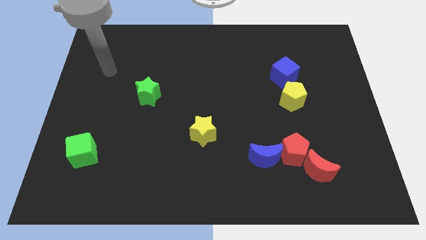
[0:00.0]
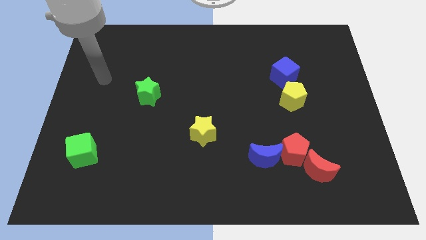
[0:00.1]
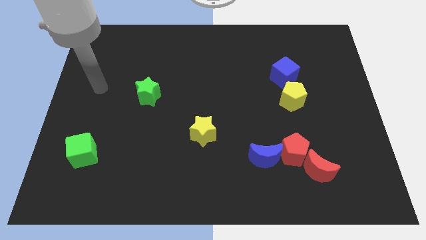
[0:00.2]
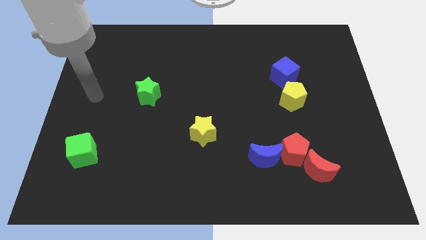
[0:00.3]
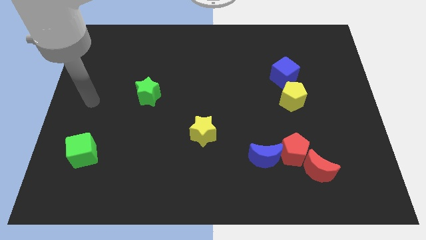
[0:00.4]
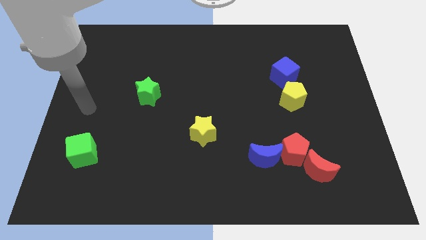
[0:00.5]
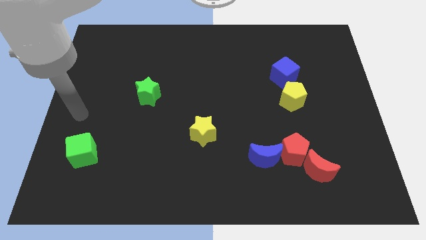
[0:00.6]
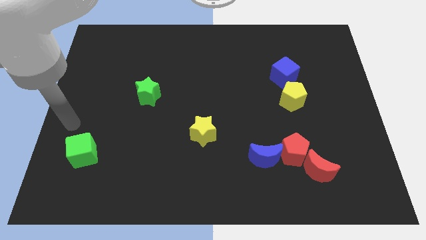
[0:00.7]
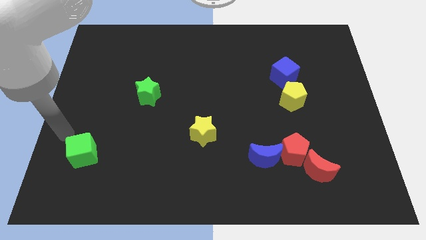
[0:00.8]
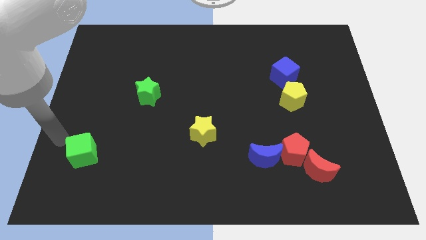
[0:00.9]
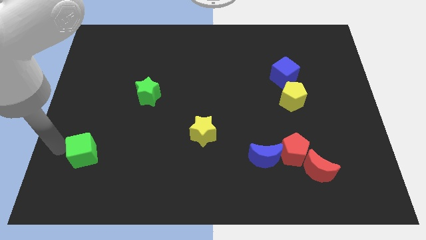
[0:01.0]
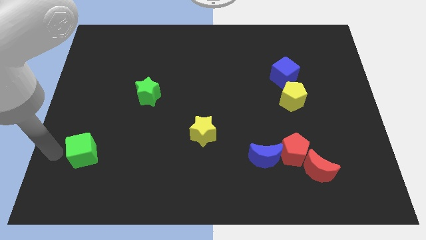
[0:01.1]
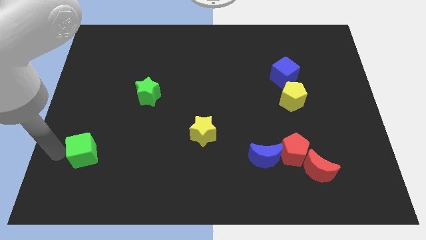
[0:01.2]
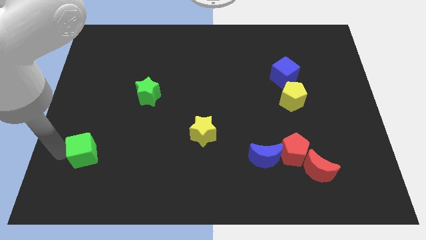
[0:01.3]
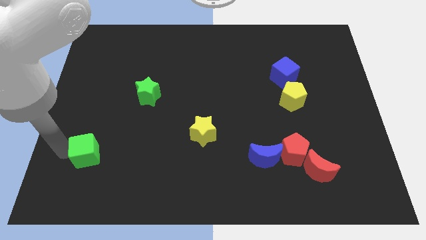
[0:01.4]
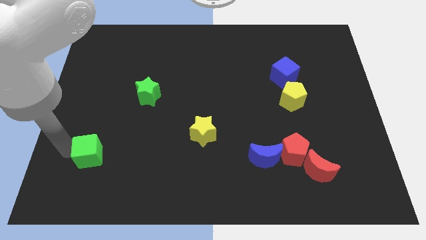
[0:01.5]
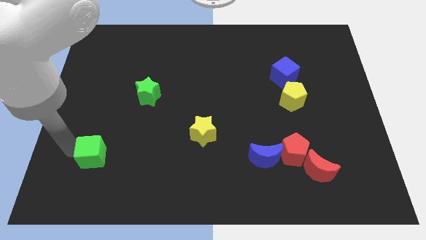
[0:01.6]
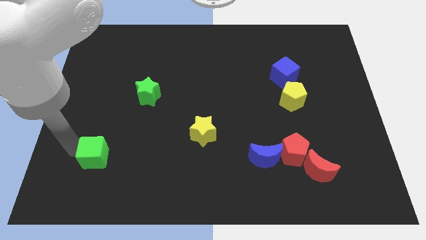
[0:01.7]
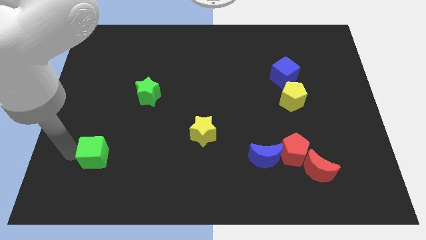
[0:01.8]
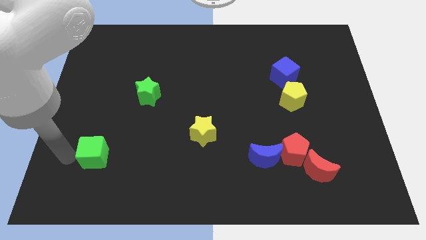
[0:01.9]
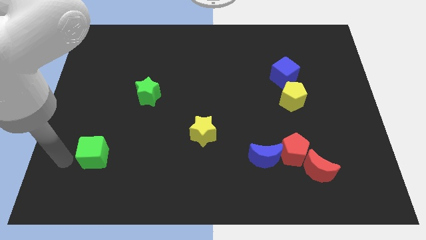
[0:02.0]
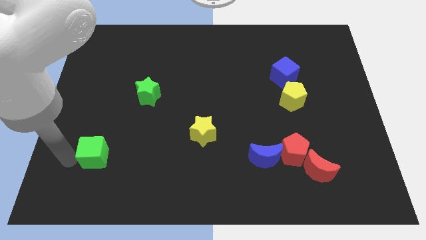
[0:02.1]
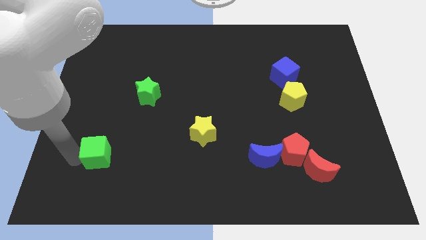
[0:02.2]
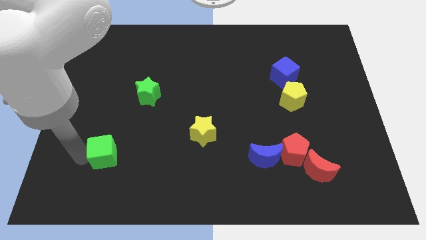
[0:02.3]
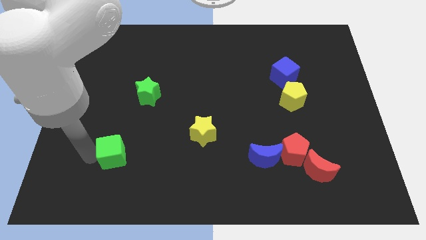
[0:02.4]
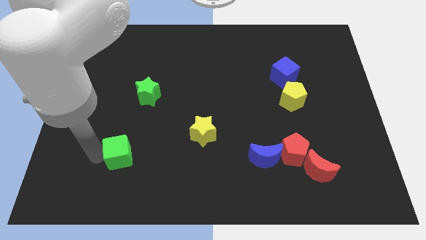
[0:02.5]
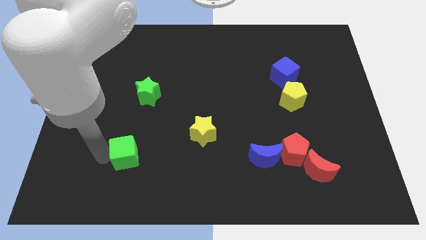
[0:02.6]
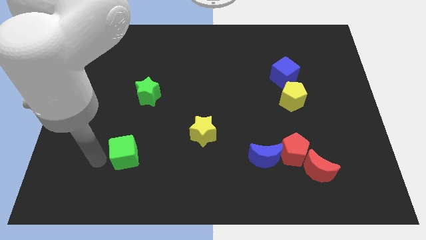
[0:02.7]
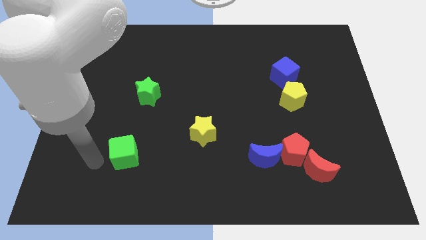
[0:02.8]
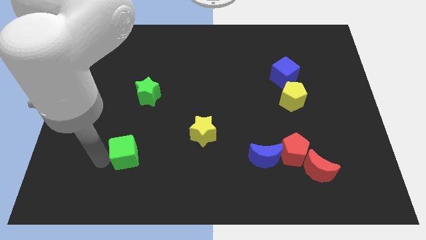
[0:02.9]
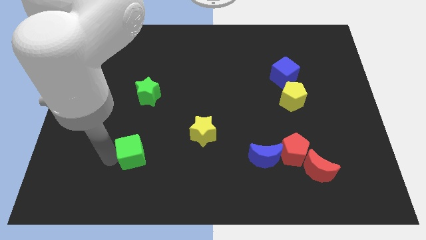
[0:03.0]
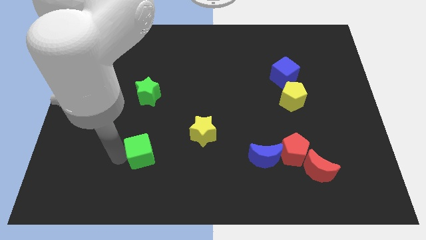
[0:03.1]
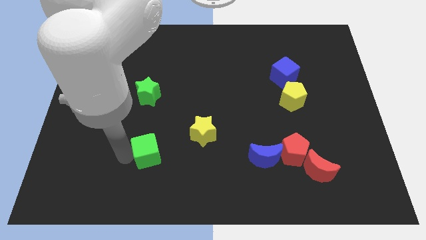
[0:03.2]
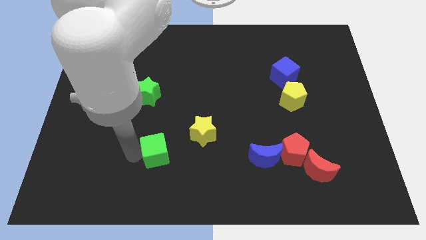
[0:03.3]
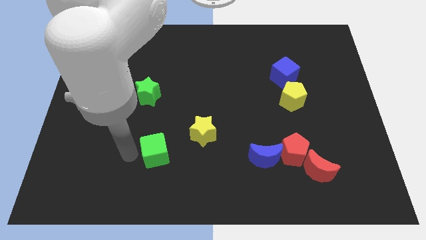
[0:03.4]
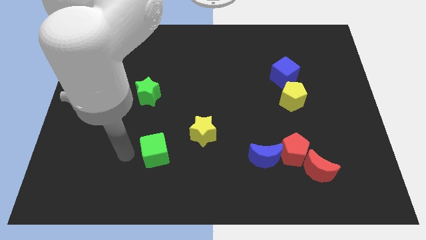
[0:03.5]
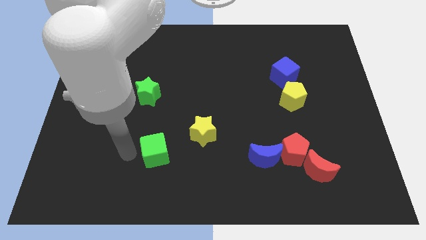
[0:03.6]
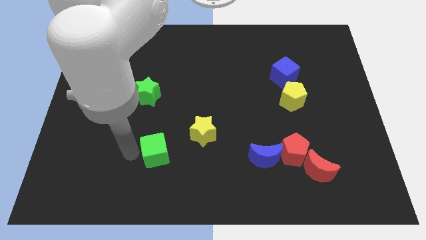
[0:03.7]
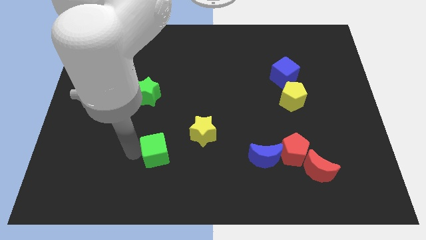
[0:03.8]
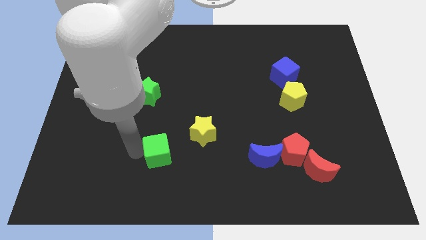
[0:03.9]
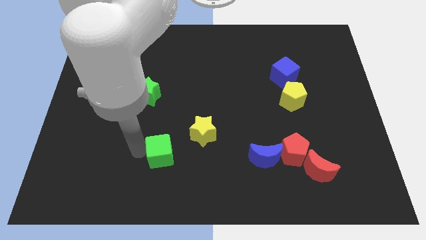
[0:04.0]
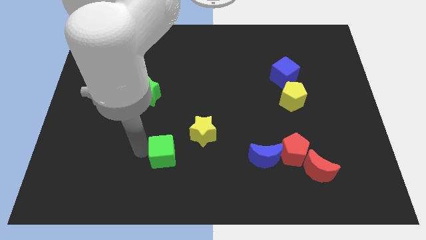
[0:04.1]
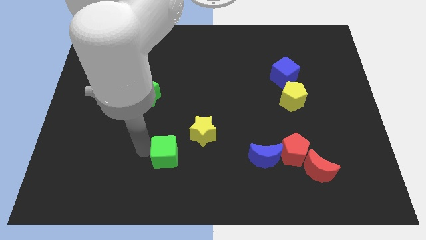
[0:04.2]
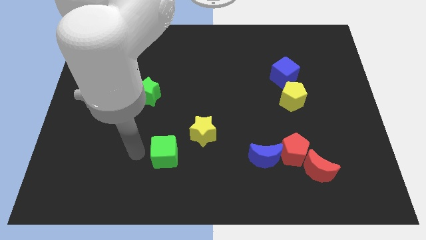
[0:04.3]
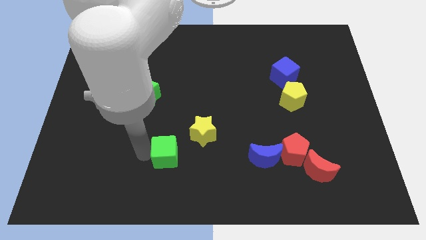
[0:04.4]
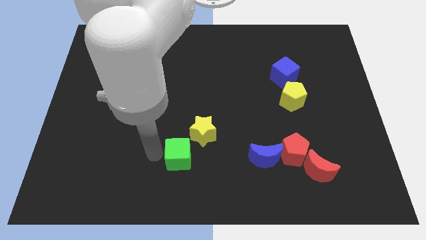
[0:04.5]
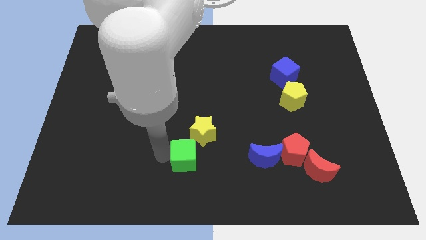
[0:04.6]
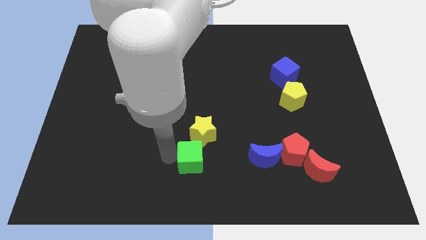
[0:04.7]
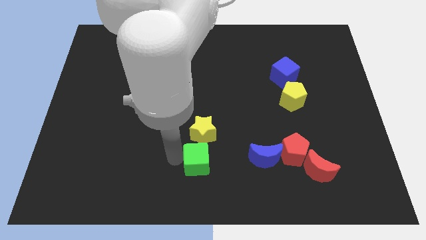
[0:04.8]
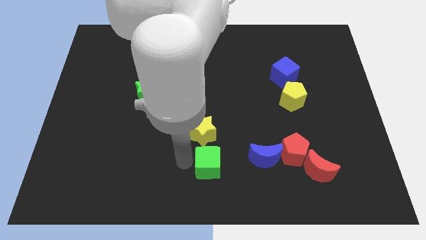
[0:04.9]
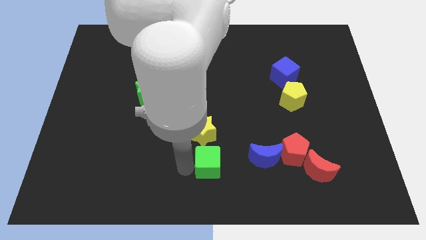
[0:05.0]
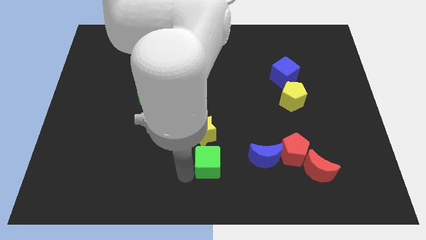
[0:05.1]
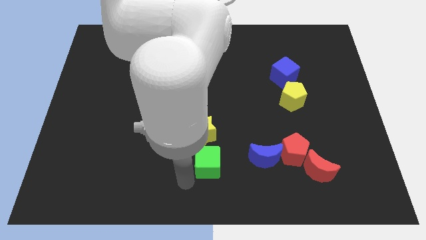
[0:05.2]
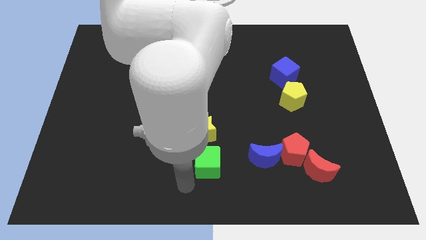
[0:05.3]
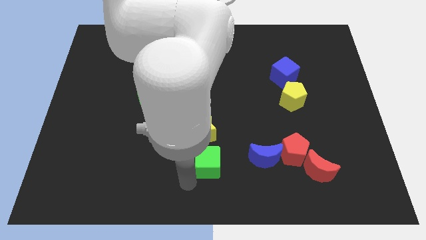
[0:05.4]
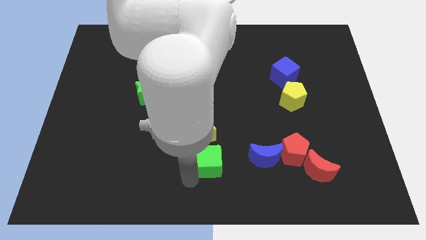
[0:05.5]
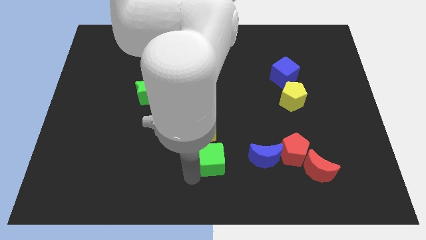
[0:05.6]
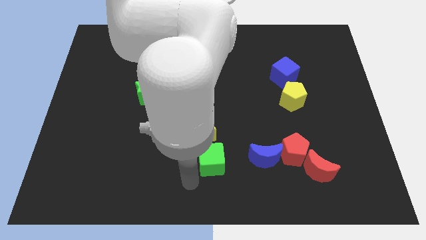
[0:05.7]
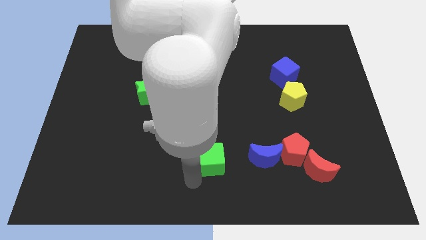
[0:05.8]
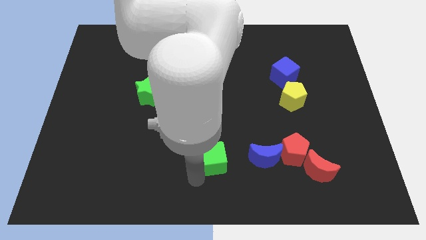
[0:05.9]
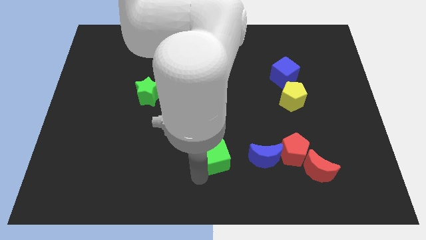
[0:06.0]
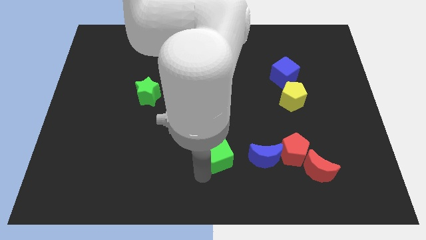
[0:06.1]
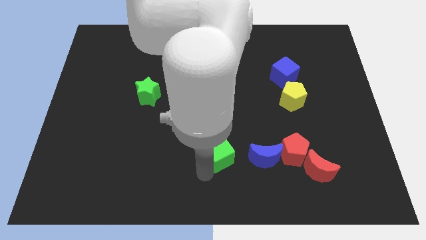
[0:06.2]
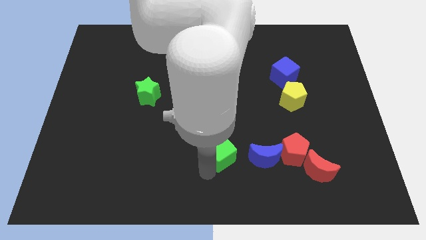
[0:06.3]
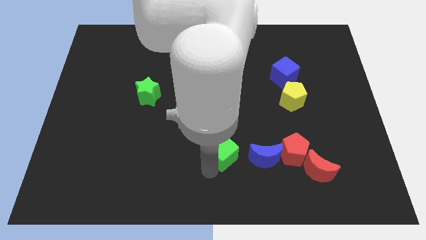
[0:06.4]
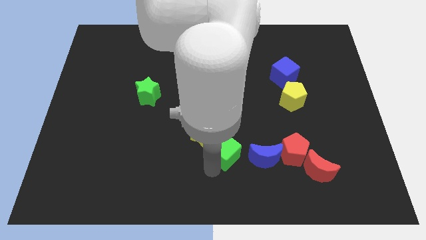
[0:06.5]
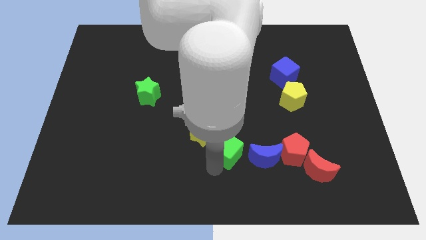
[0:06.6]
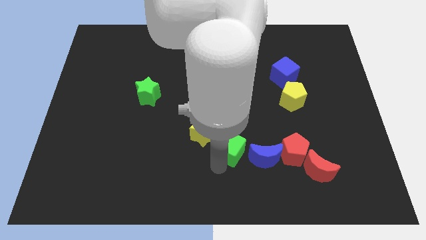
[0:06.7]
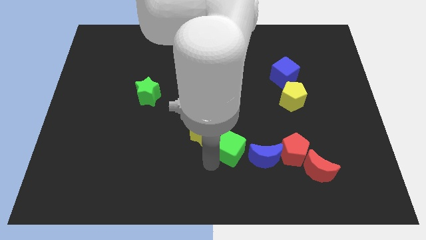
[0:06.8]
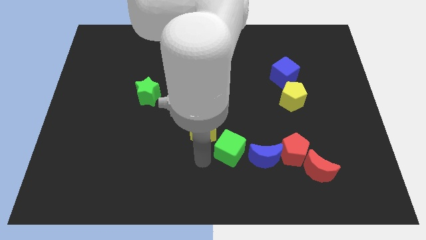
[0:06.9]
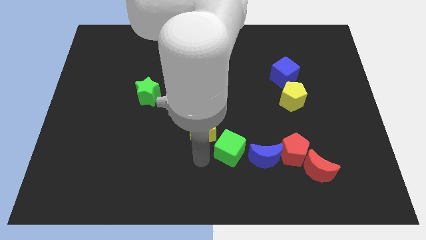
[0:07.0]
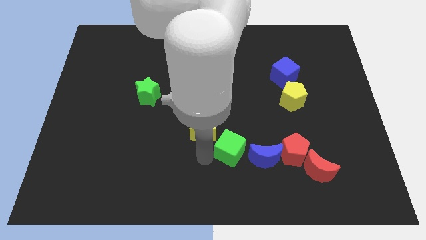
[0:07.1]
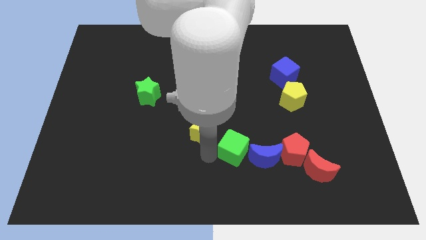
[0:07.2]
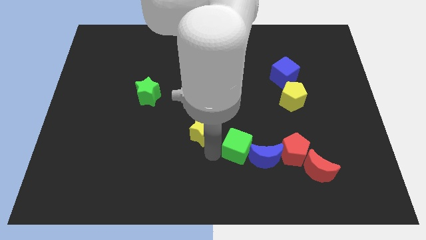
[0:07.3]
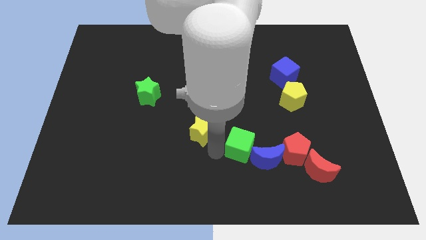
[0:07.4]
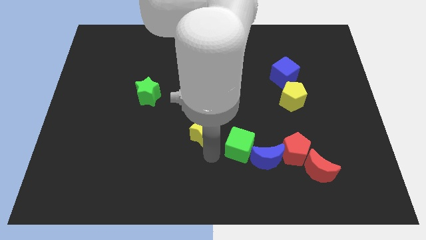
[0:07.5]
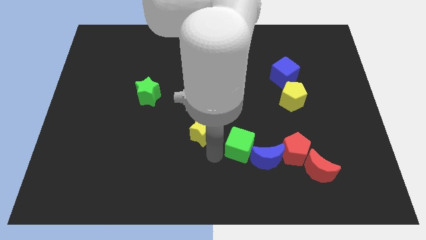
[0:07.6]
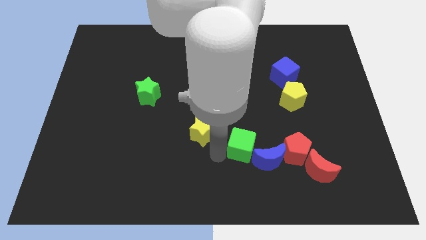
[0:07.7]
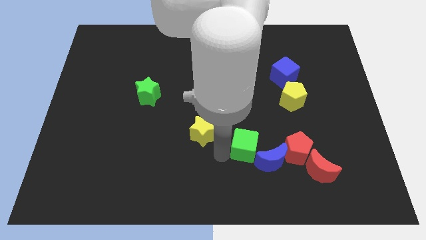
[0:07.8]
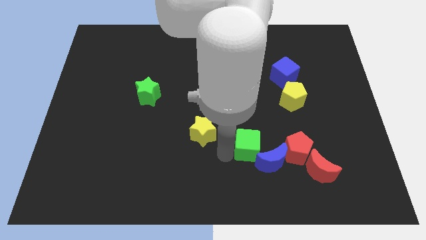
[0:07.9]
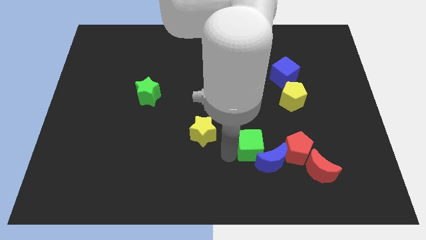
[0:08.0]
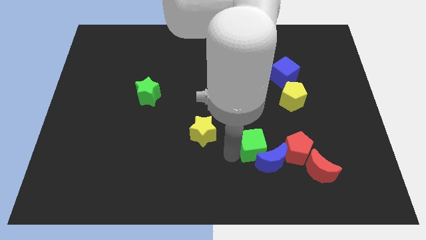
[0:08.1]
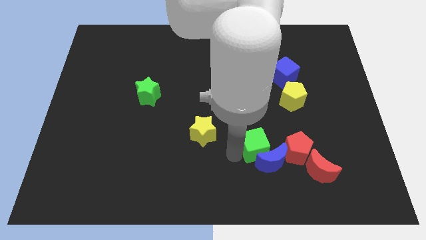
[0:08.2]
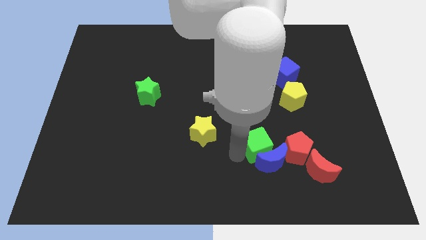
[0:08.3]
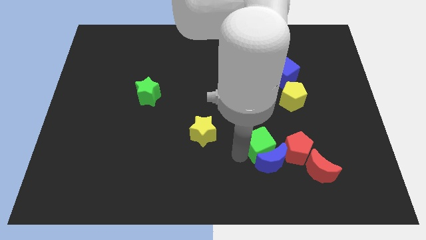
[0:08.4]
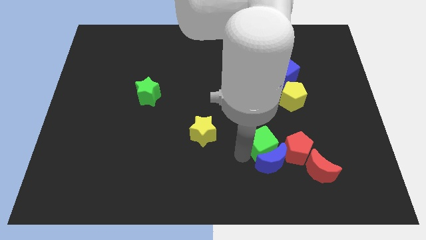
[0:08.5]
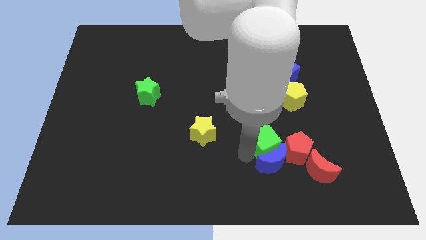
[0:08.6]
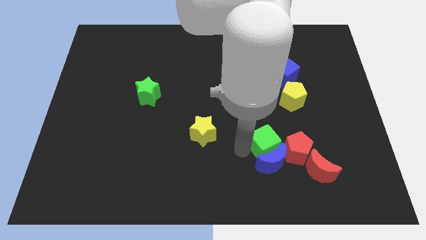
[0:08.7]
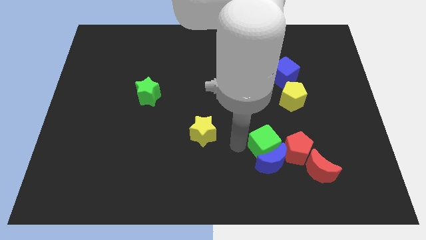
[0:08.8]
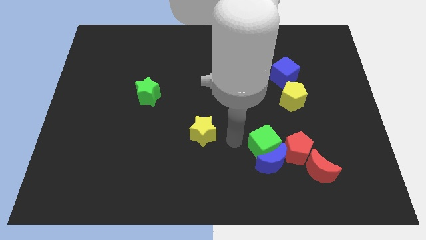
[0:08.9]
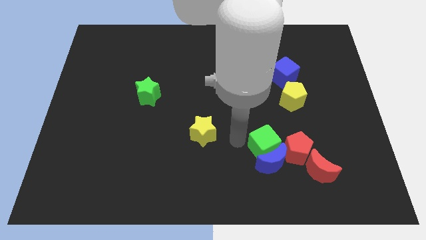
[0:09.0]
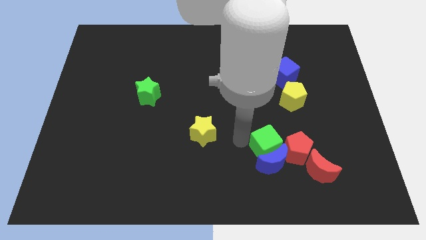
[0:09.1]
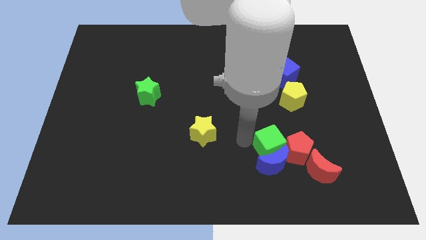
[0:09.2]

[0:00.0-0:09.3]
push the green cube close to the red pentagon
